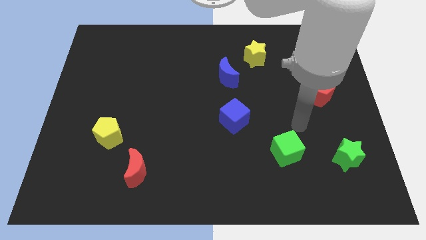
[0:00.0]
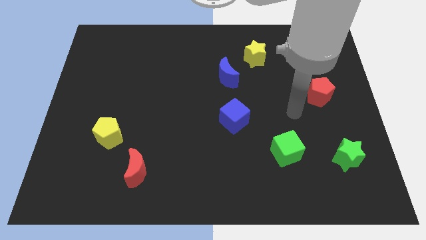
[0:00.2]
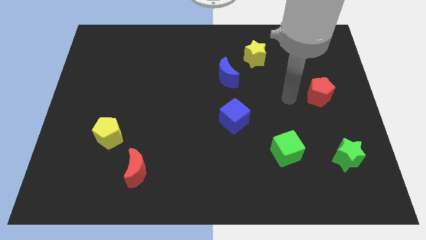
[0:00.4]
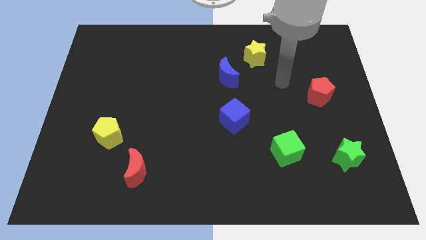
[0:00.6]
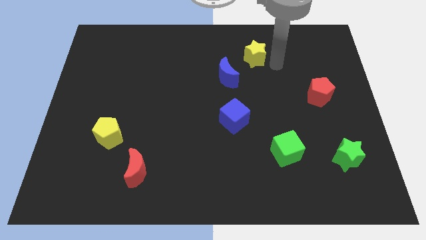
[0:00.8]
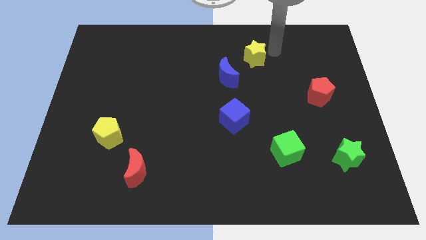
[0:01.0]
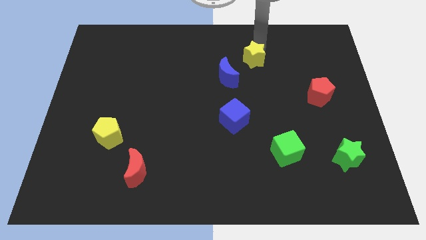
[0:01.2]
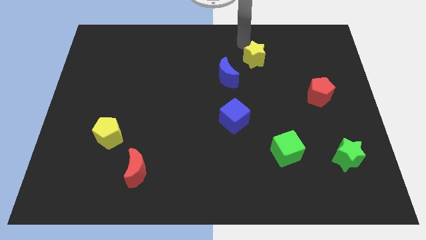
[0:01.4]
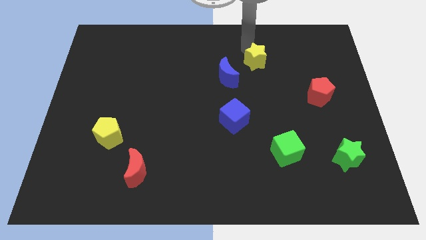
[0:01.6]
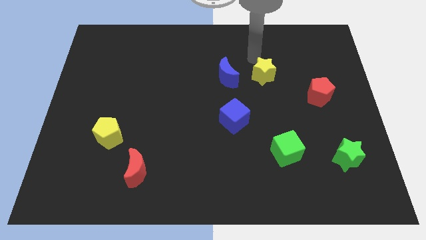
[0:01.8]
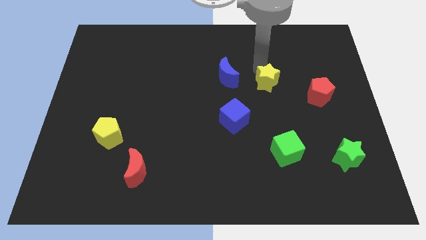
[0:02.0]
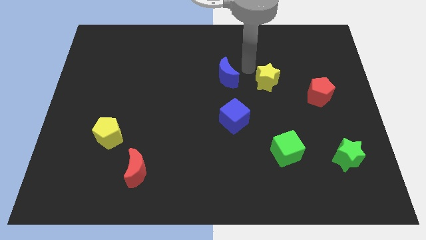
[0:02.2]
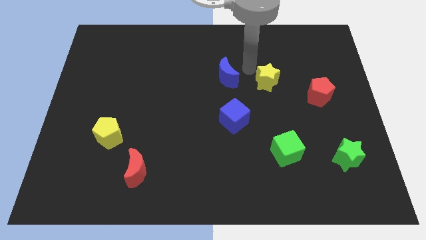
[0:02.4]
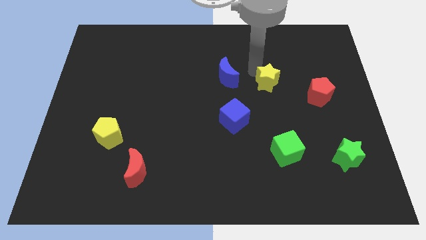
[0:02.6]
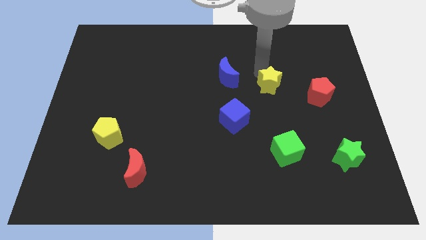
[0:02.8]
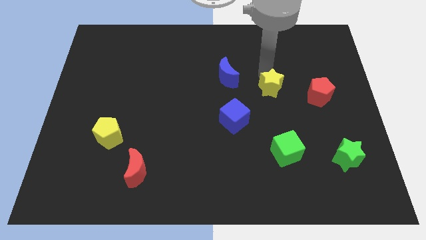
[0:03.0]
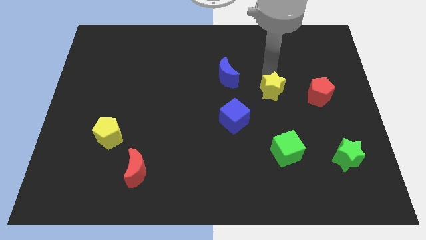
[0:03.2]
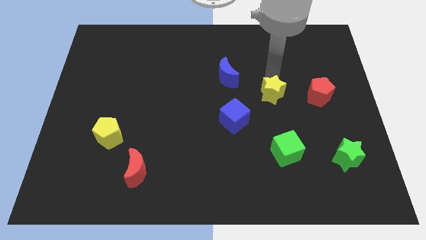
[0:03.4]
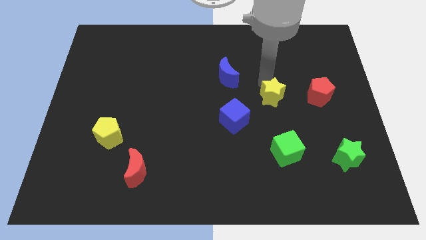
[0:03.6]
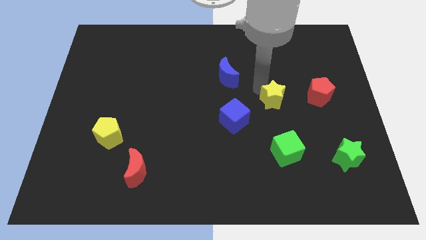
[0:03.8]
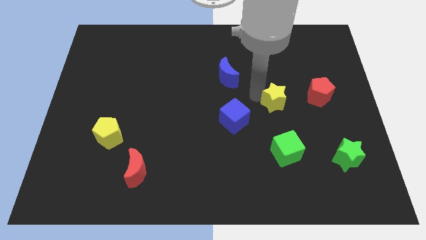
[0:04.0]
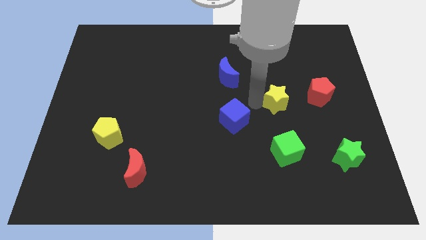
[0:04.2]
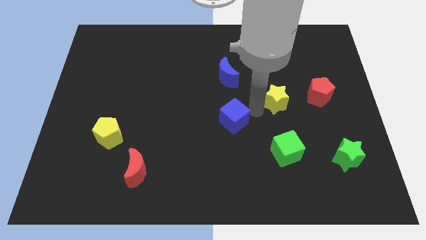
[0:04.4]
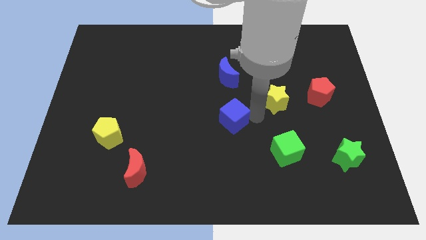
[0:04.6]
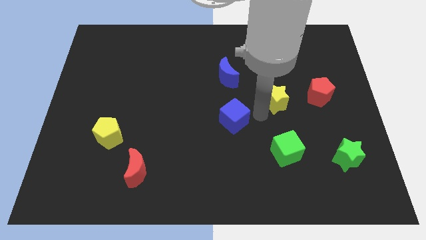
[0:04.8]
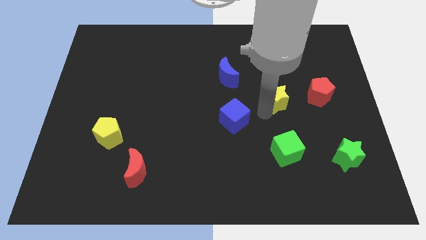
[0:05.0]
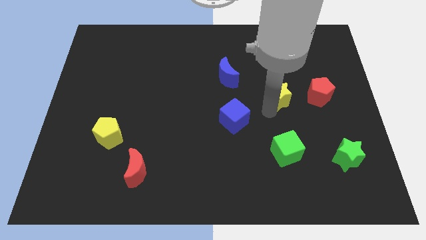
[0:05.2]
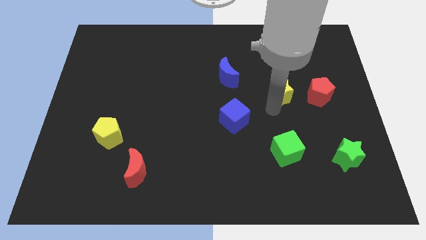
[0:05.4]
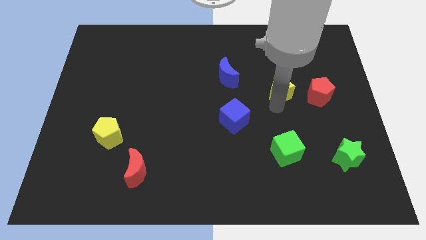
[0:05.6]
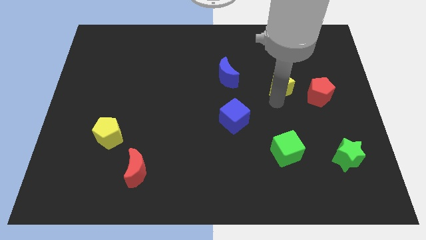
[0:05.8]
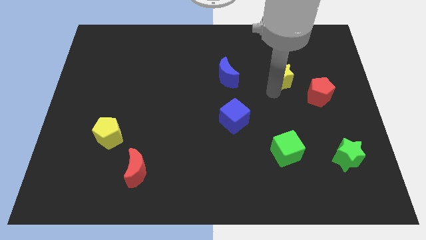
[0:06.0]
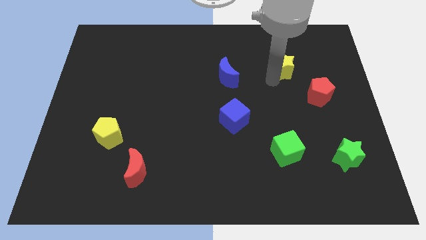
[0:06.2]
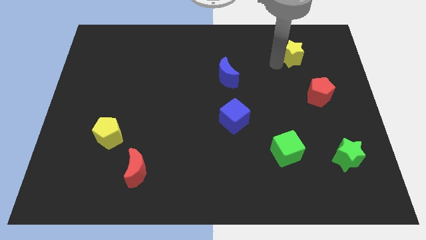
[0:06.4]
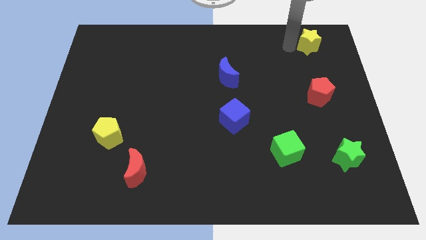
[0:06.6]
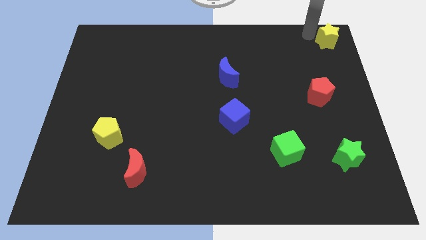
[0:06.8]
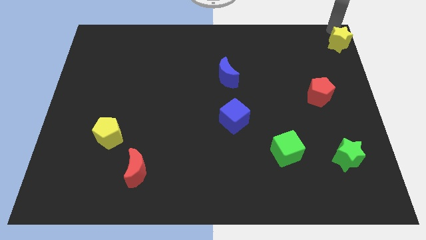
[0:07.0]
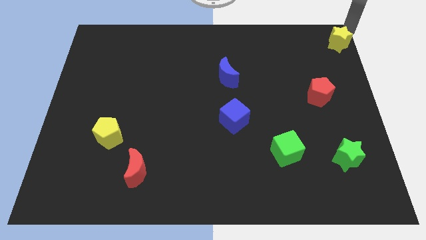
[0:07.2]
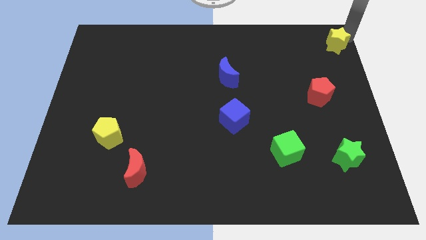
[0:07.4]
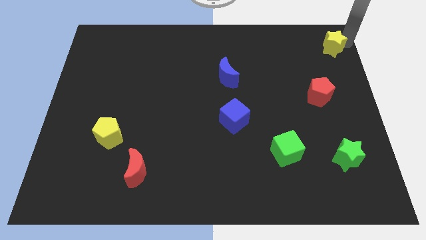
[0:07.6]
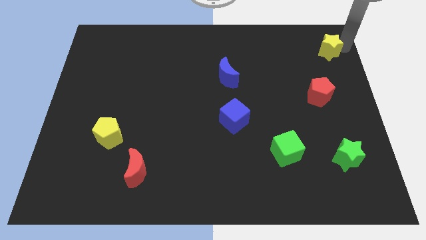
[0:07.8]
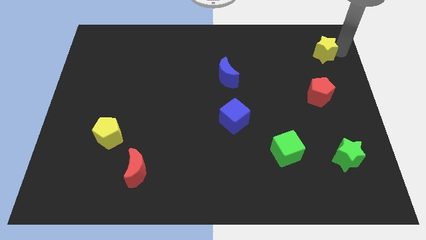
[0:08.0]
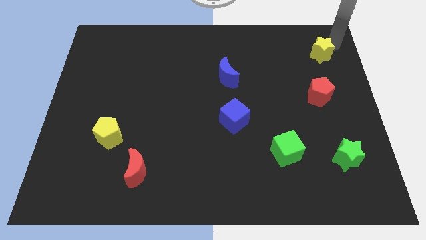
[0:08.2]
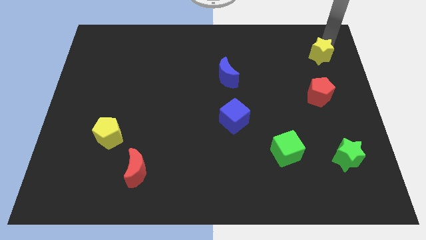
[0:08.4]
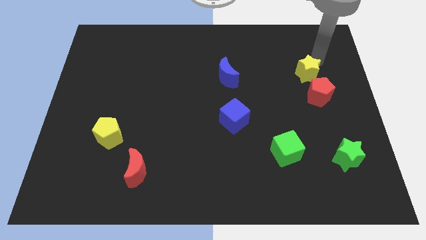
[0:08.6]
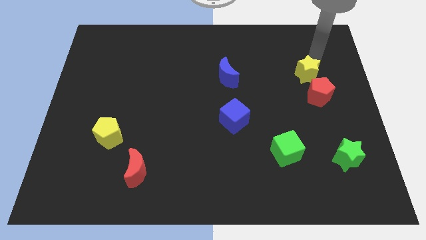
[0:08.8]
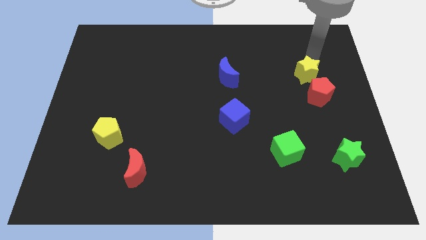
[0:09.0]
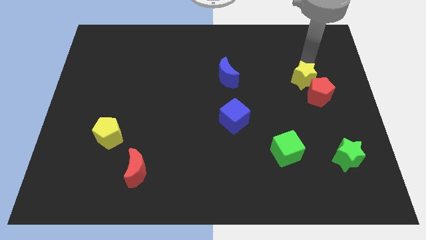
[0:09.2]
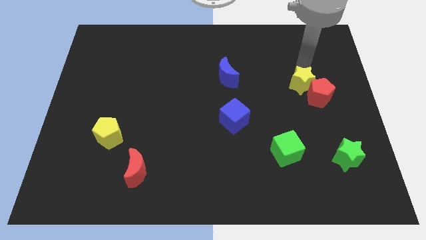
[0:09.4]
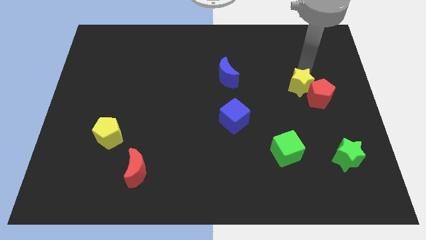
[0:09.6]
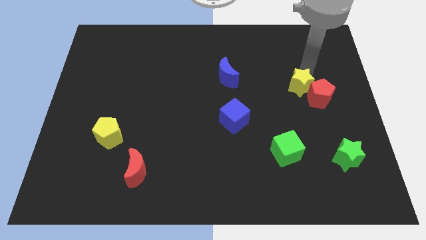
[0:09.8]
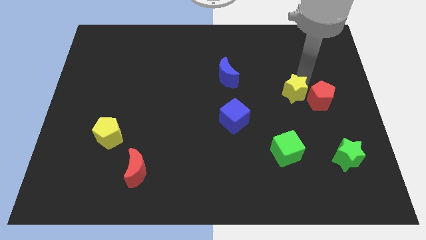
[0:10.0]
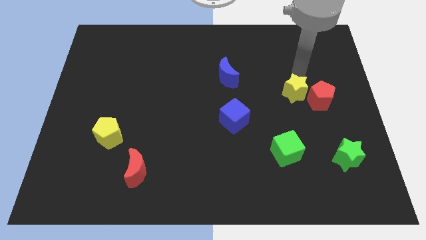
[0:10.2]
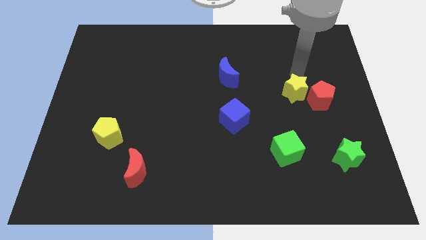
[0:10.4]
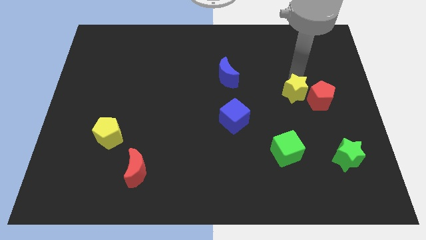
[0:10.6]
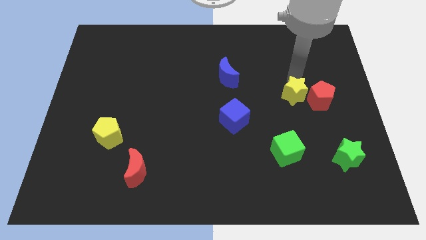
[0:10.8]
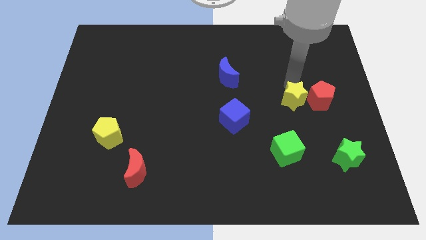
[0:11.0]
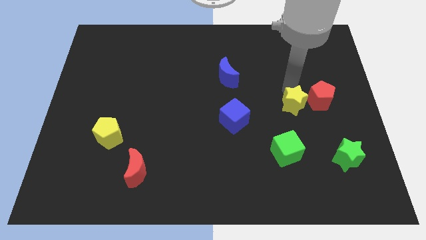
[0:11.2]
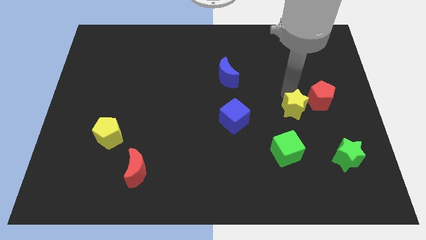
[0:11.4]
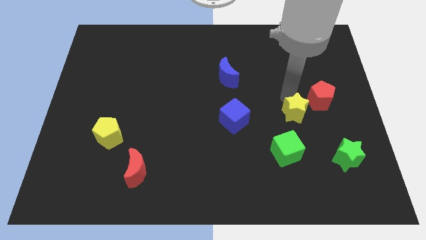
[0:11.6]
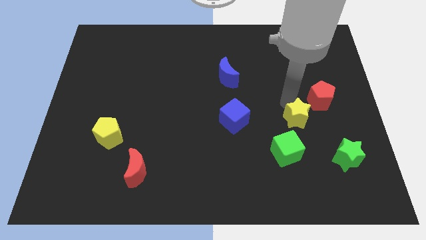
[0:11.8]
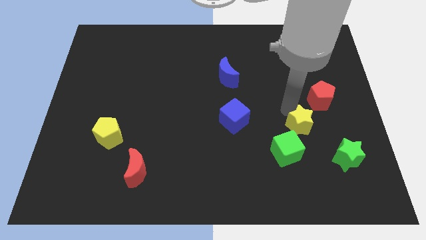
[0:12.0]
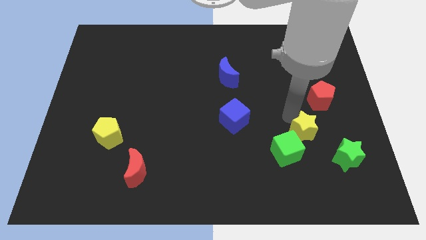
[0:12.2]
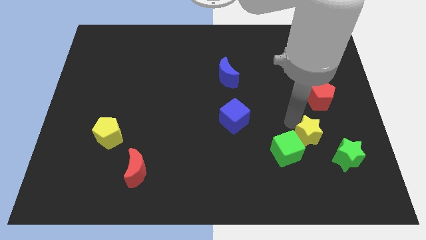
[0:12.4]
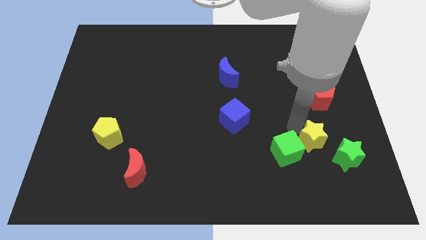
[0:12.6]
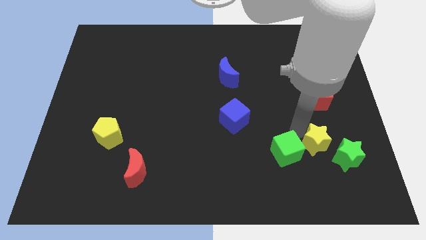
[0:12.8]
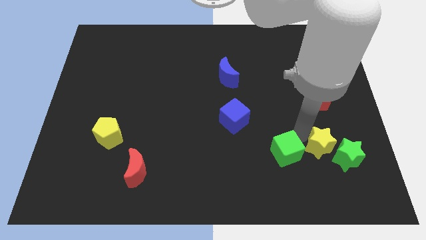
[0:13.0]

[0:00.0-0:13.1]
move the yellow star close to the green star
